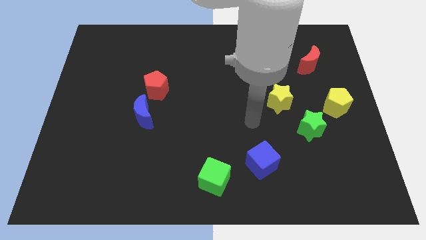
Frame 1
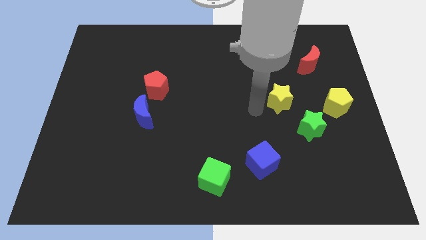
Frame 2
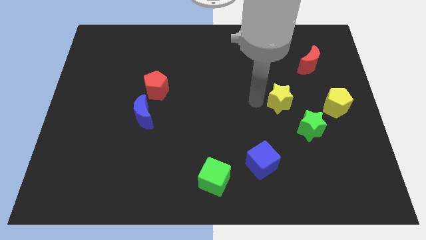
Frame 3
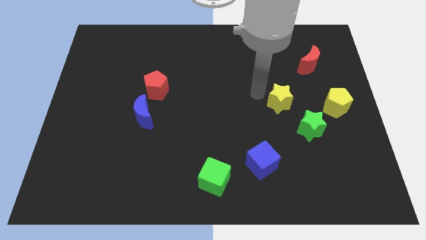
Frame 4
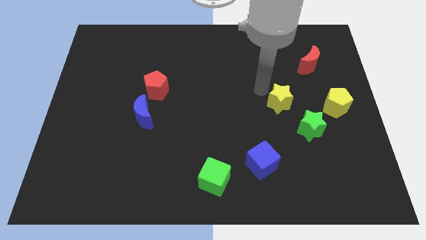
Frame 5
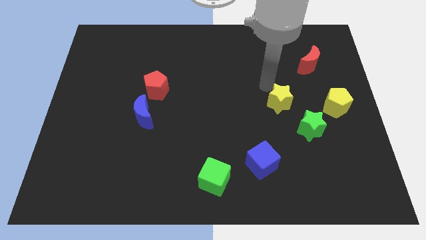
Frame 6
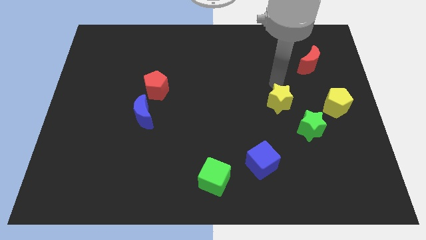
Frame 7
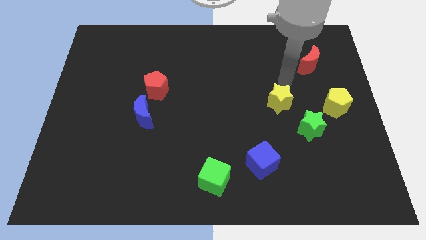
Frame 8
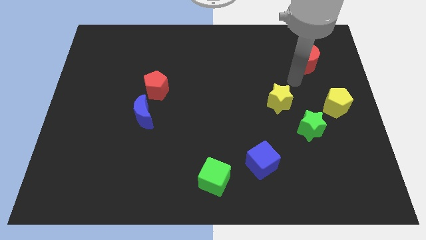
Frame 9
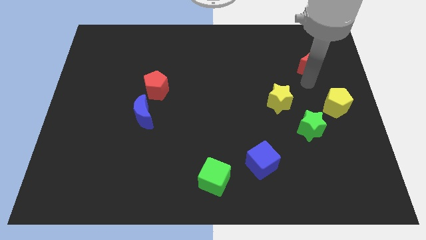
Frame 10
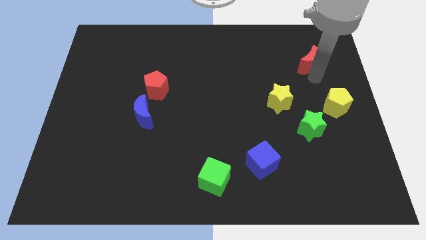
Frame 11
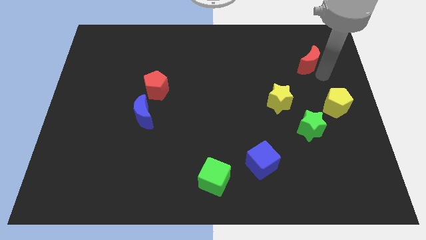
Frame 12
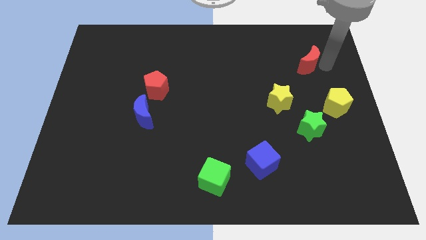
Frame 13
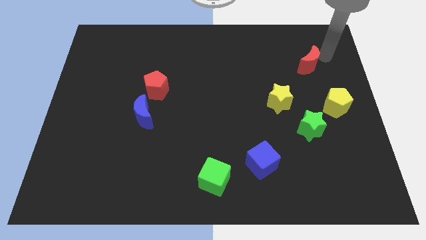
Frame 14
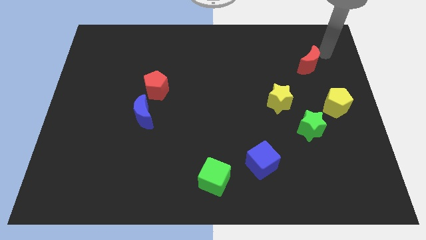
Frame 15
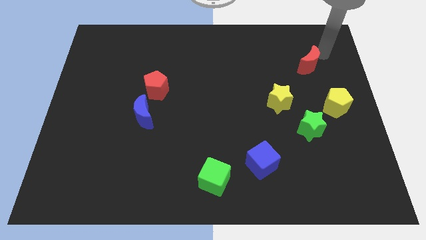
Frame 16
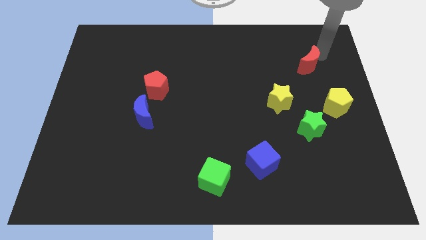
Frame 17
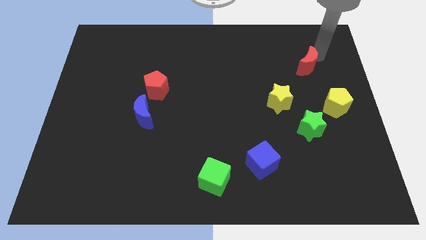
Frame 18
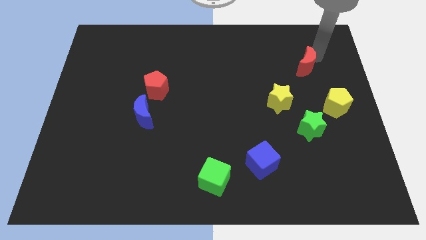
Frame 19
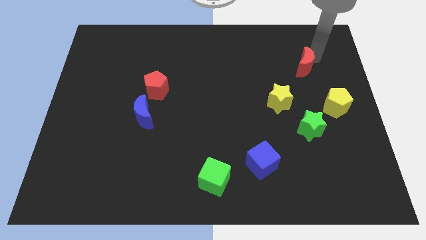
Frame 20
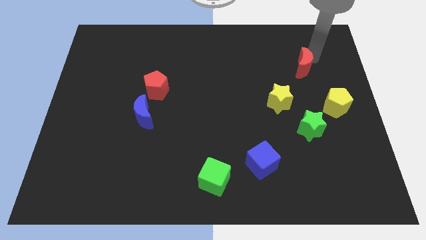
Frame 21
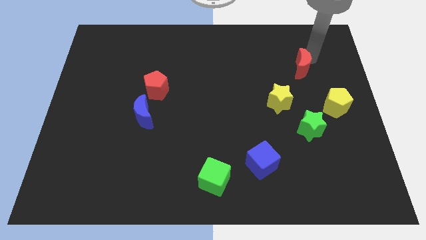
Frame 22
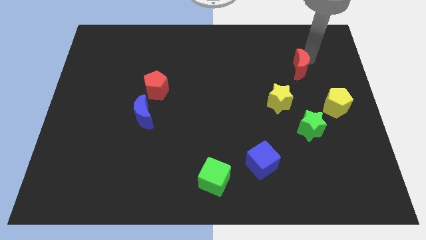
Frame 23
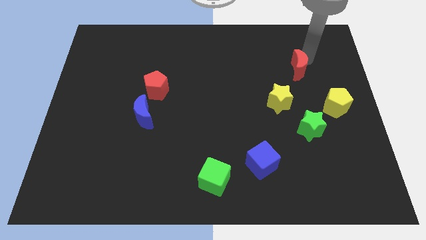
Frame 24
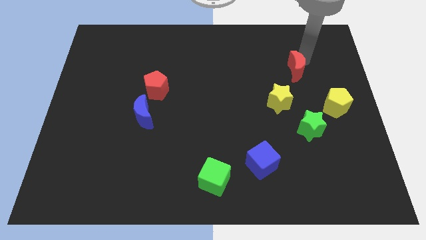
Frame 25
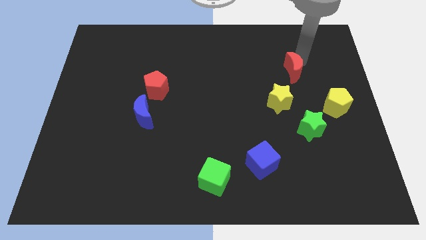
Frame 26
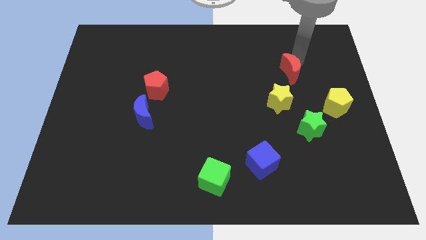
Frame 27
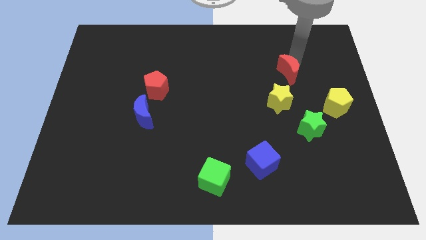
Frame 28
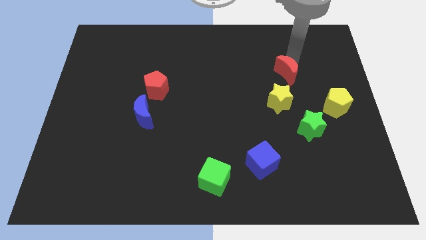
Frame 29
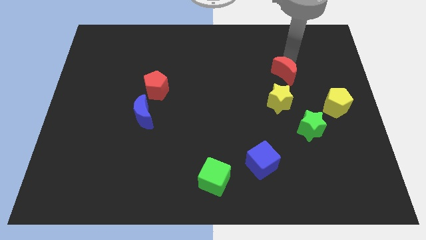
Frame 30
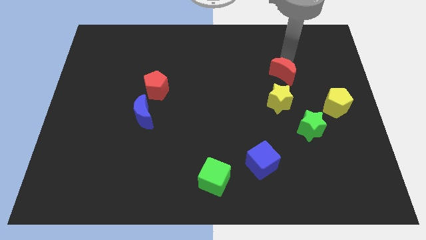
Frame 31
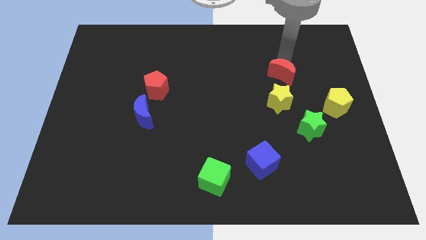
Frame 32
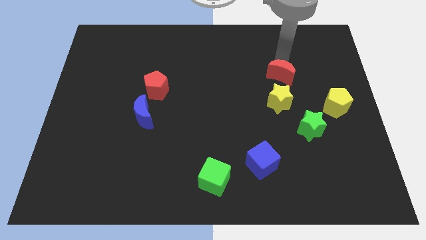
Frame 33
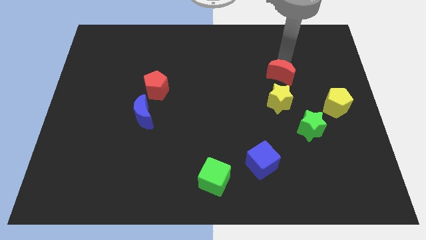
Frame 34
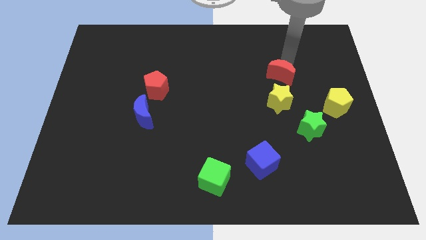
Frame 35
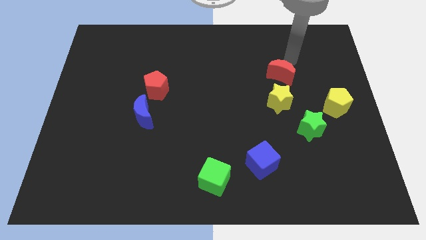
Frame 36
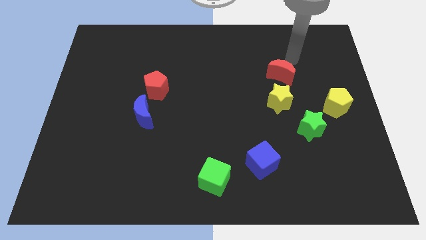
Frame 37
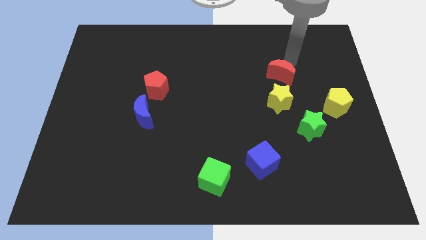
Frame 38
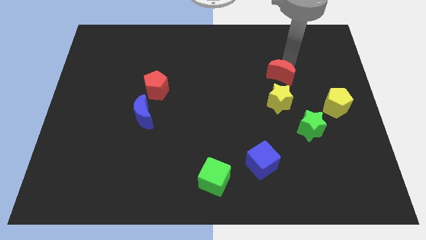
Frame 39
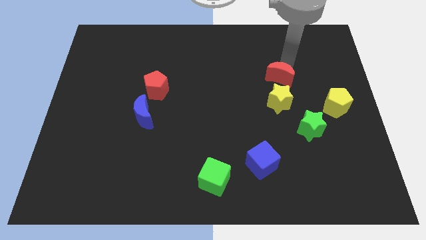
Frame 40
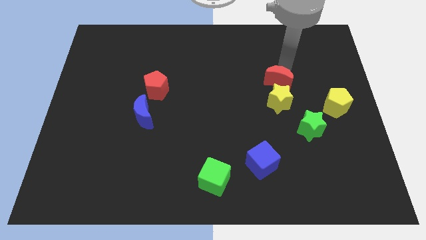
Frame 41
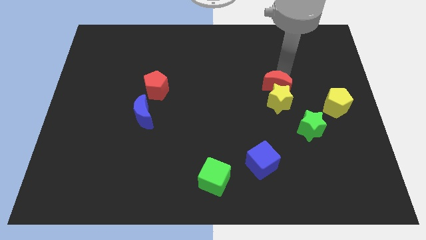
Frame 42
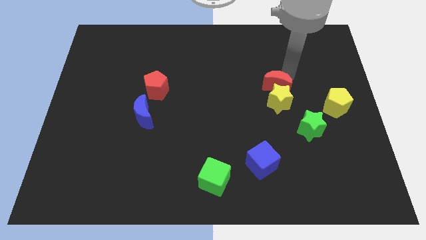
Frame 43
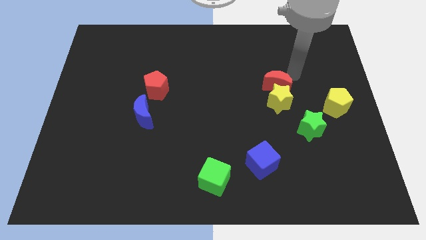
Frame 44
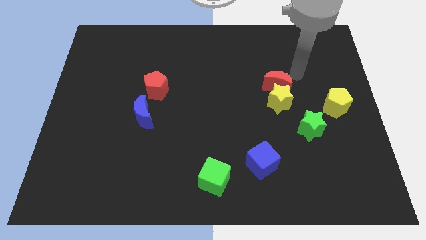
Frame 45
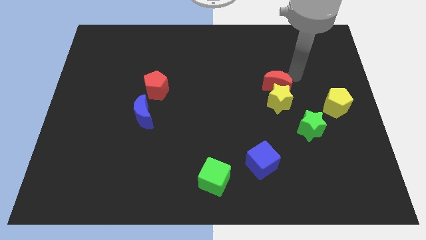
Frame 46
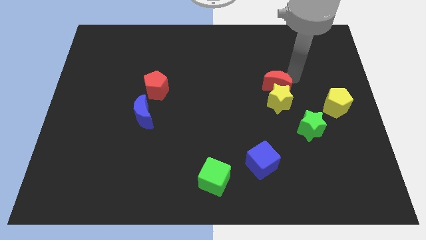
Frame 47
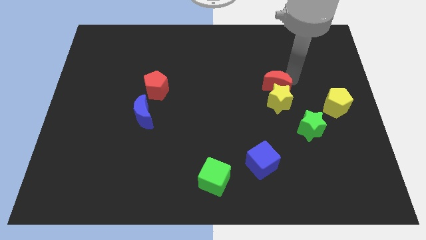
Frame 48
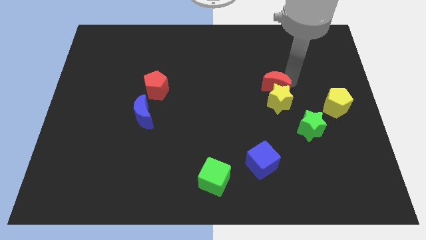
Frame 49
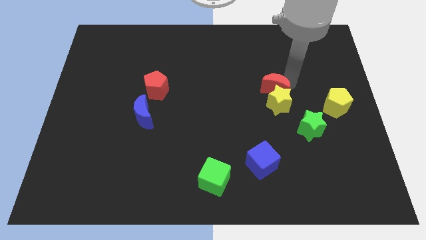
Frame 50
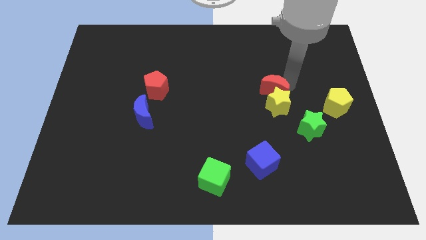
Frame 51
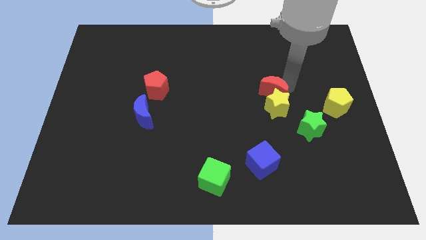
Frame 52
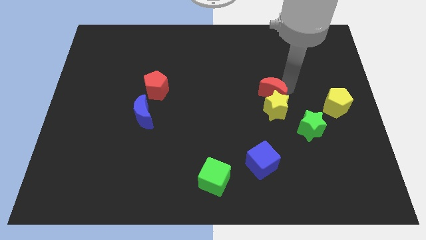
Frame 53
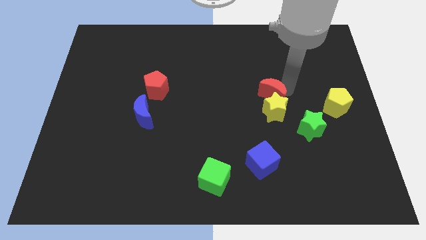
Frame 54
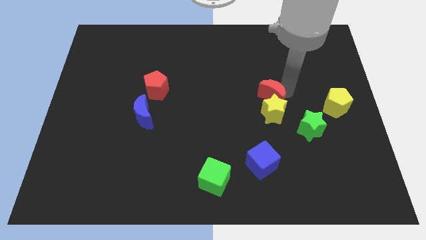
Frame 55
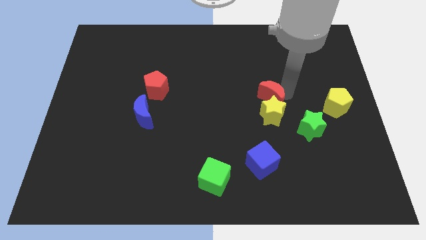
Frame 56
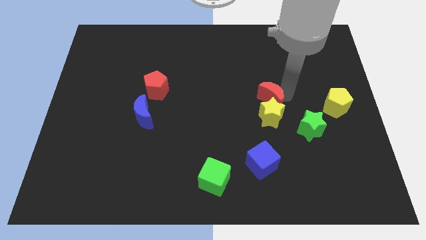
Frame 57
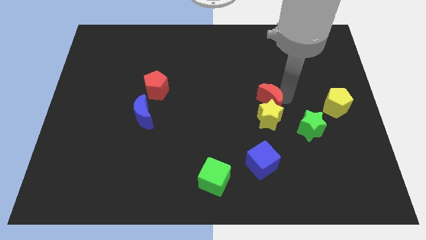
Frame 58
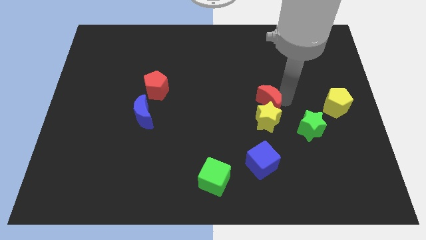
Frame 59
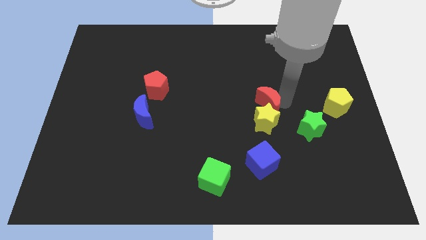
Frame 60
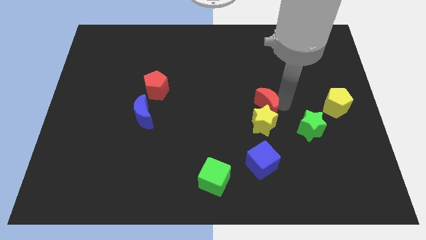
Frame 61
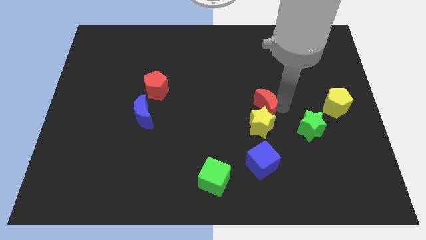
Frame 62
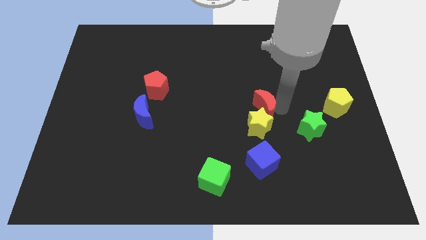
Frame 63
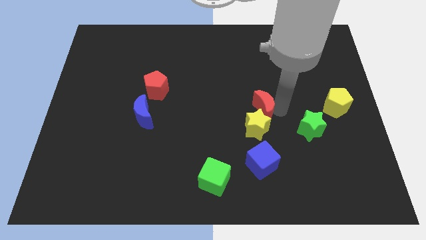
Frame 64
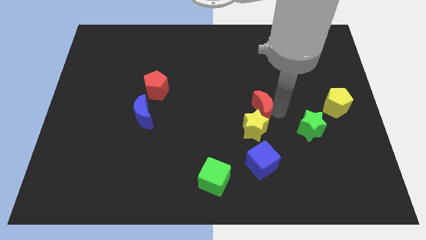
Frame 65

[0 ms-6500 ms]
push the red moon diagonally downwards and to the left

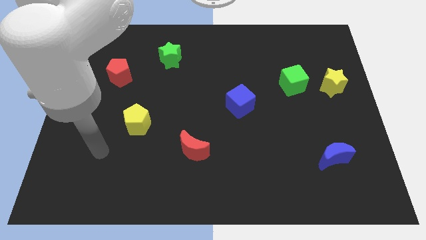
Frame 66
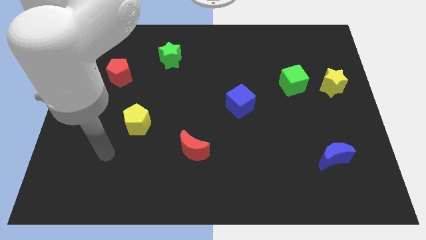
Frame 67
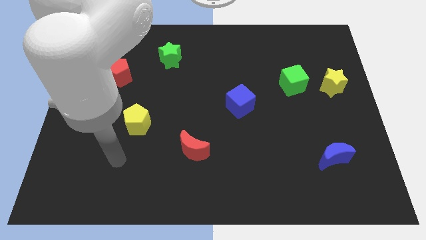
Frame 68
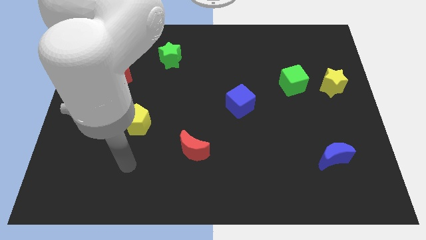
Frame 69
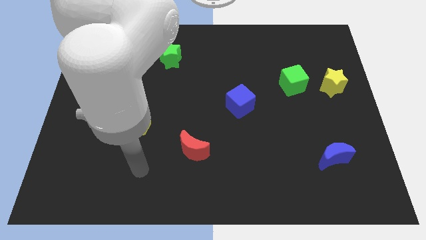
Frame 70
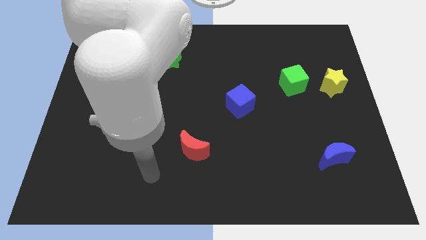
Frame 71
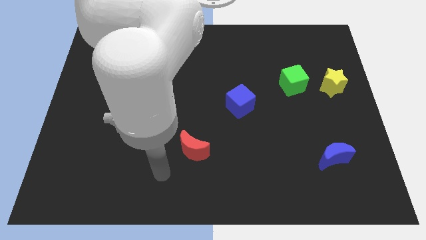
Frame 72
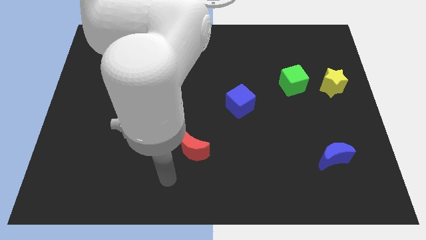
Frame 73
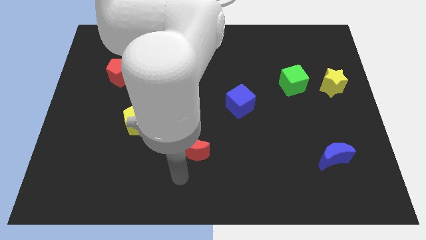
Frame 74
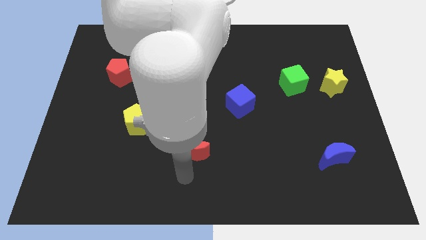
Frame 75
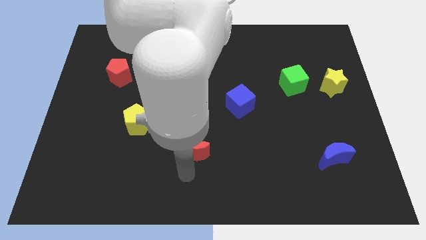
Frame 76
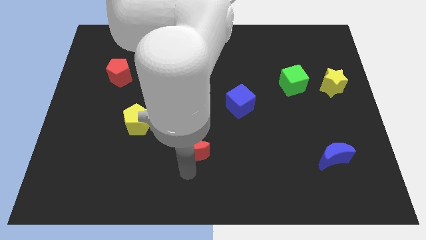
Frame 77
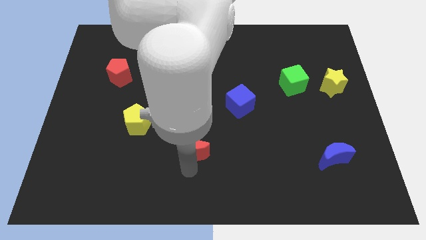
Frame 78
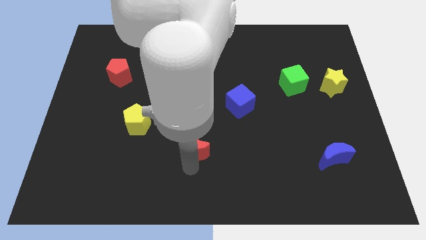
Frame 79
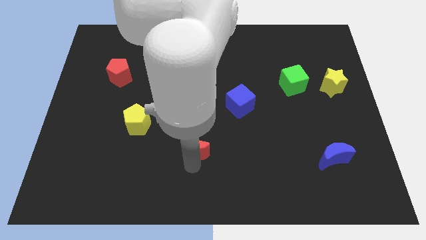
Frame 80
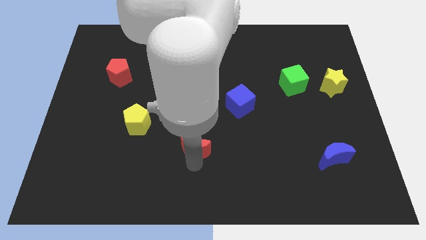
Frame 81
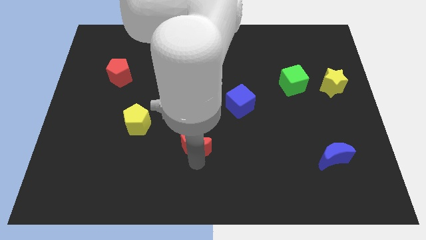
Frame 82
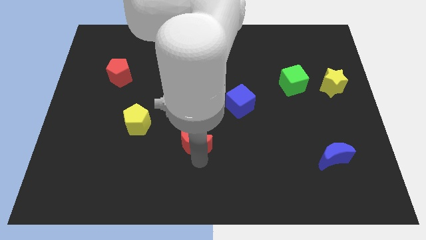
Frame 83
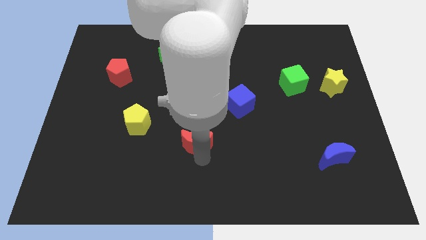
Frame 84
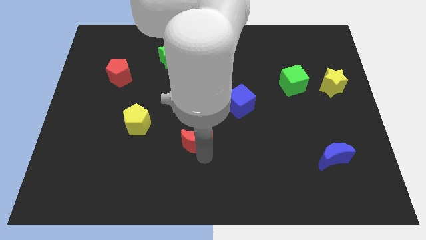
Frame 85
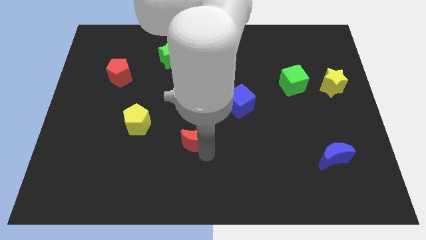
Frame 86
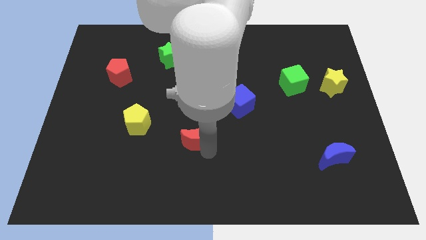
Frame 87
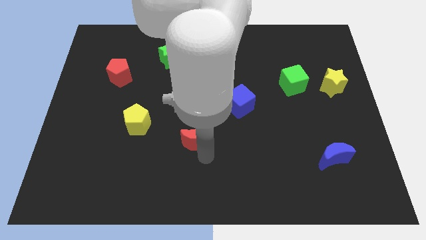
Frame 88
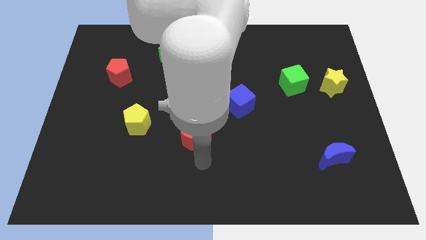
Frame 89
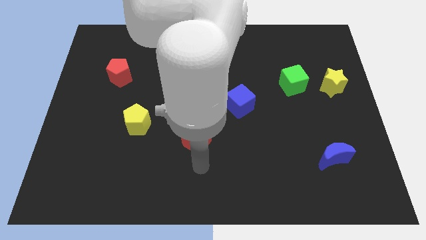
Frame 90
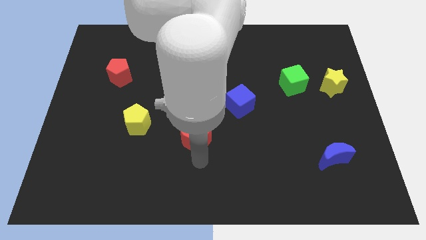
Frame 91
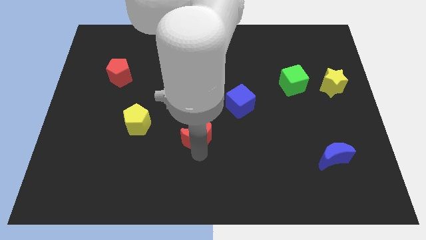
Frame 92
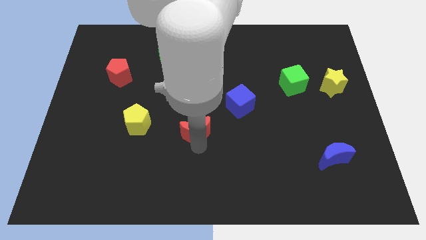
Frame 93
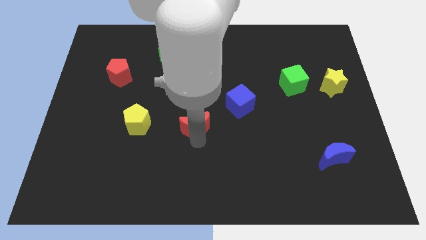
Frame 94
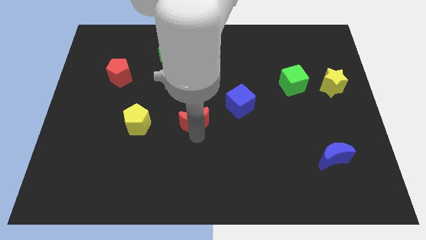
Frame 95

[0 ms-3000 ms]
slightly push the red moon up
